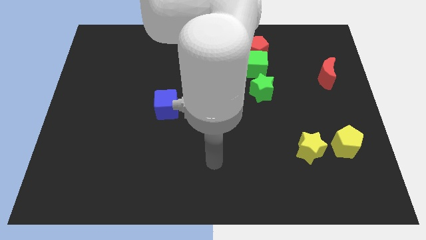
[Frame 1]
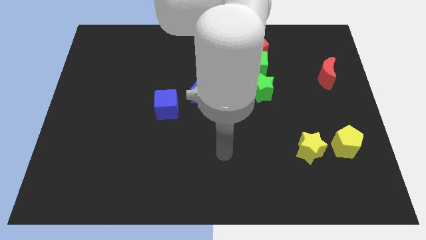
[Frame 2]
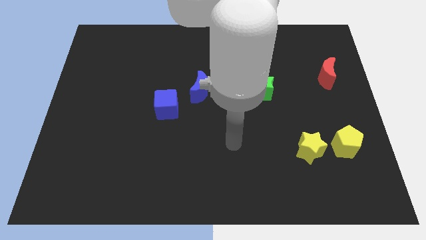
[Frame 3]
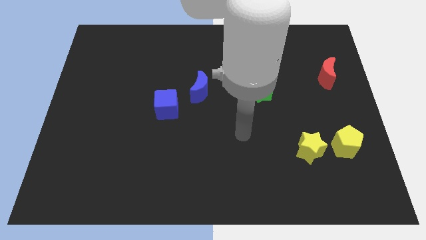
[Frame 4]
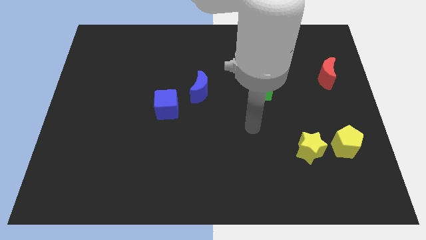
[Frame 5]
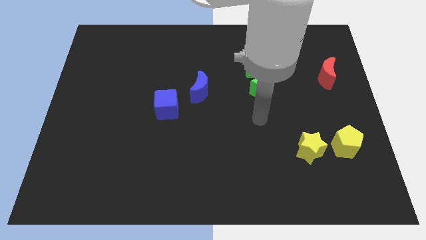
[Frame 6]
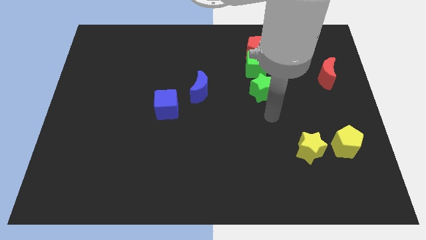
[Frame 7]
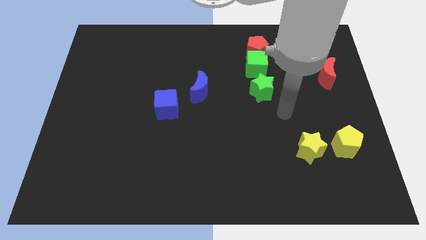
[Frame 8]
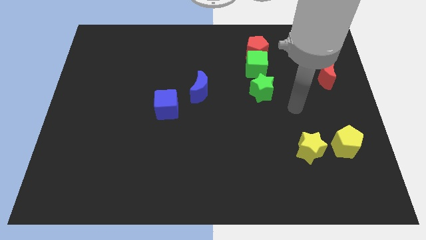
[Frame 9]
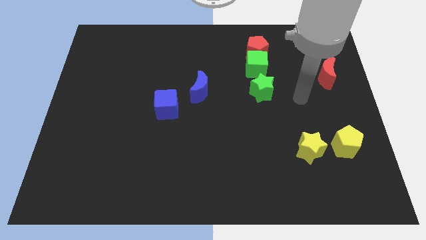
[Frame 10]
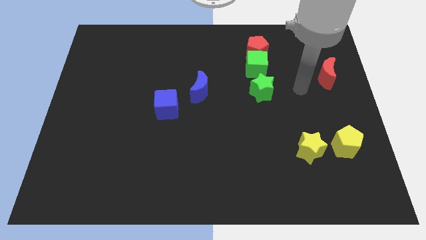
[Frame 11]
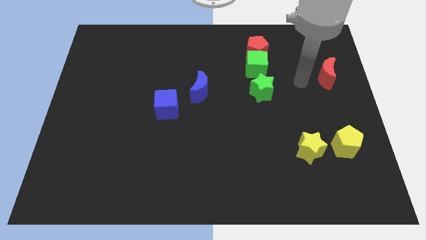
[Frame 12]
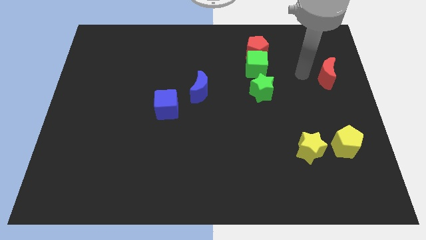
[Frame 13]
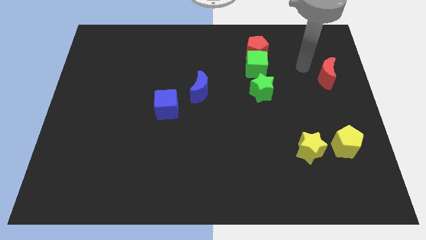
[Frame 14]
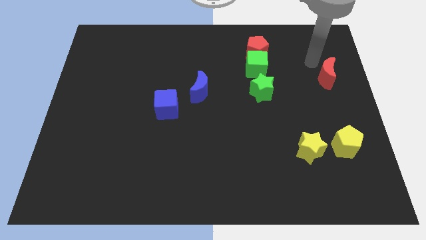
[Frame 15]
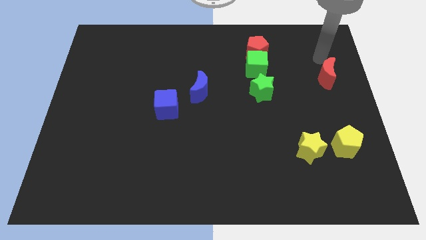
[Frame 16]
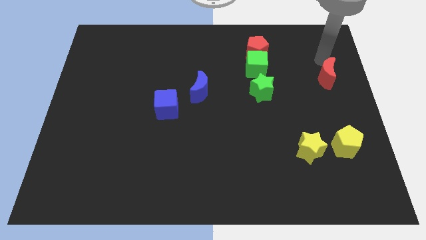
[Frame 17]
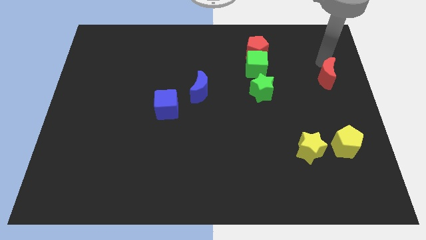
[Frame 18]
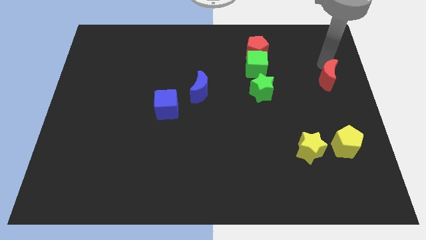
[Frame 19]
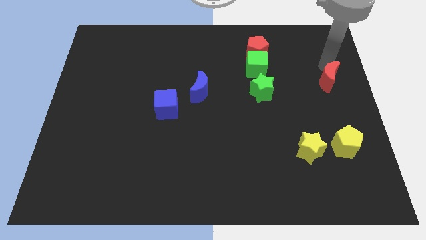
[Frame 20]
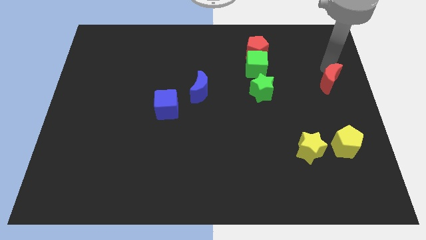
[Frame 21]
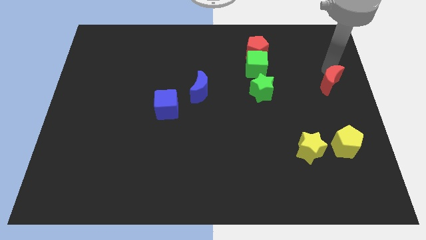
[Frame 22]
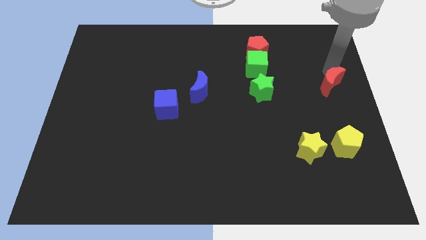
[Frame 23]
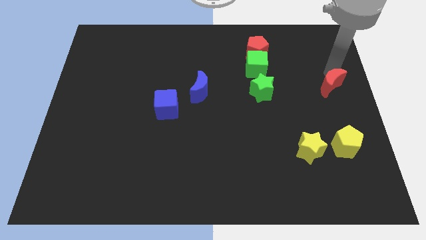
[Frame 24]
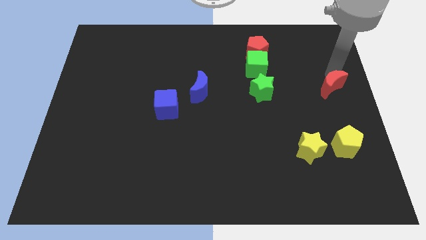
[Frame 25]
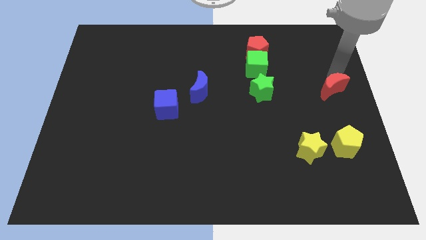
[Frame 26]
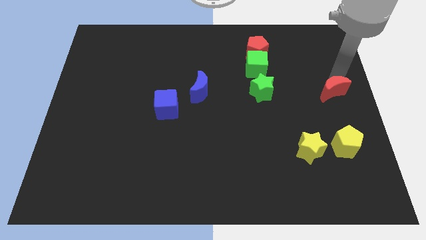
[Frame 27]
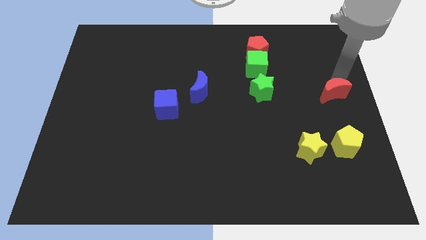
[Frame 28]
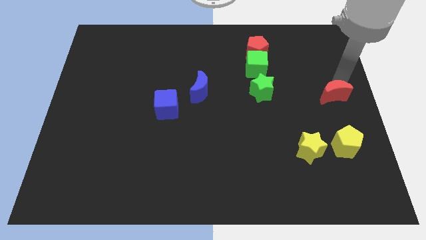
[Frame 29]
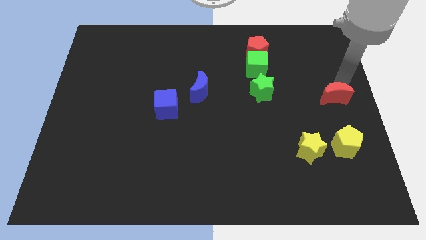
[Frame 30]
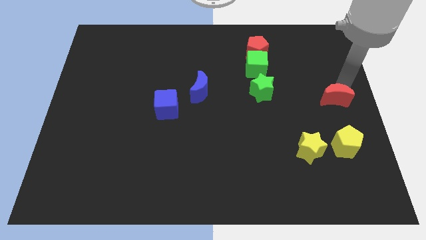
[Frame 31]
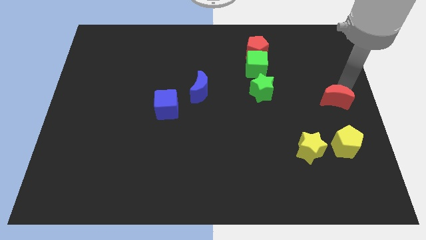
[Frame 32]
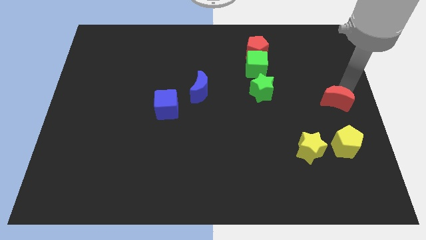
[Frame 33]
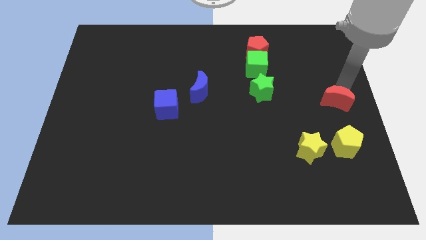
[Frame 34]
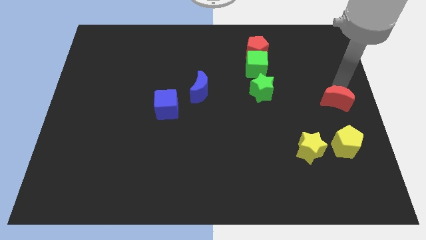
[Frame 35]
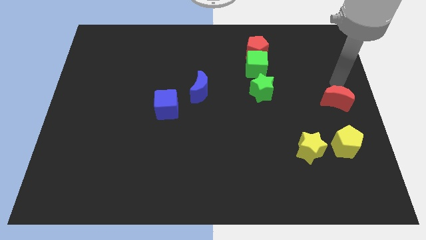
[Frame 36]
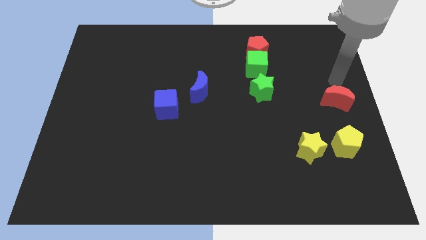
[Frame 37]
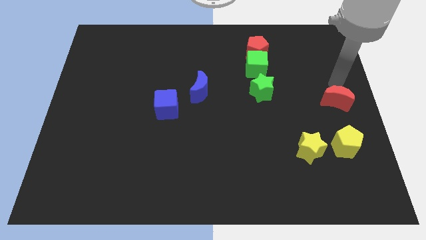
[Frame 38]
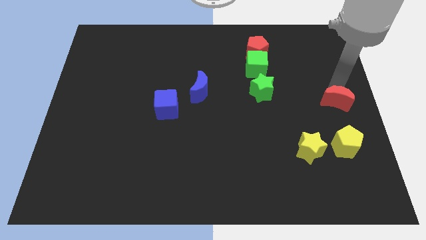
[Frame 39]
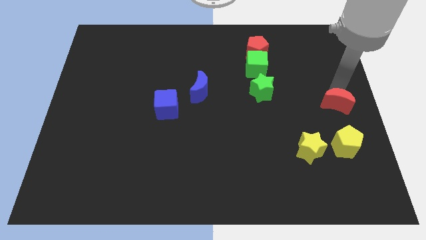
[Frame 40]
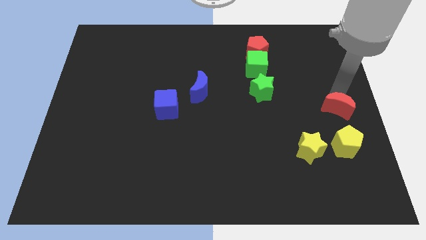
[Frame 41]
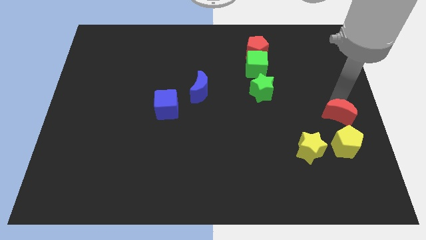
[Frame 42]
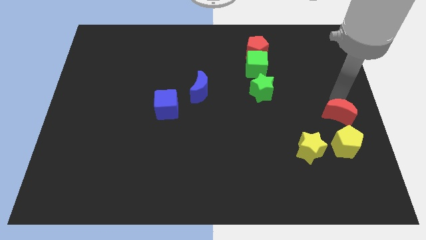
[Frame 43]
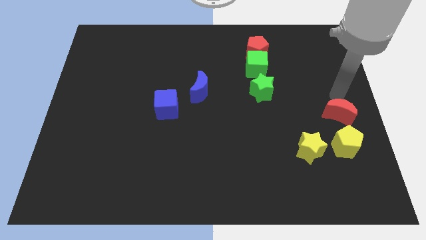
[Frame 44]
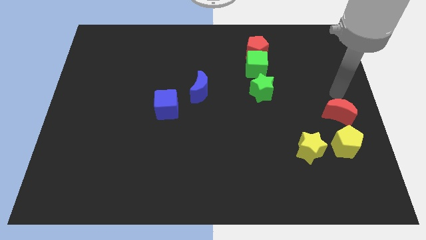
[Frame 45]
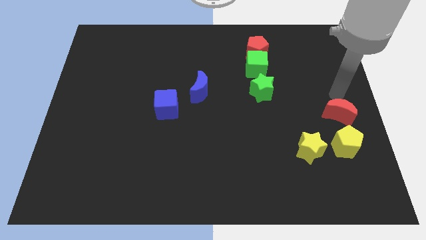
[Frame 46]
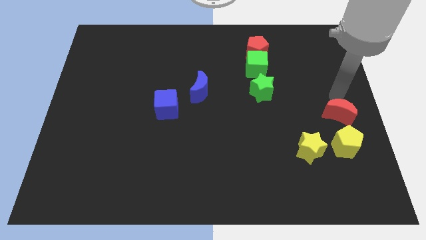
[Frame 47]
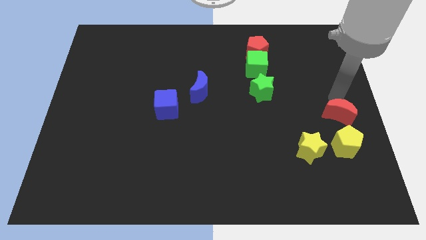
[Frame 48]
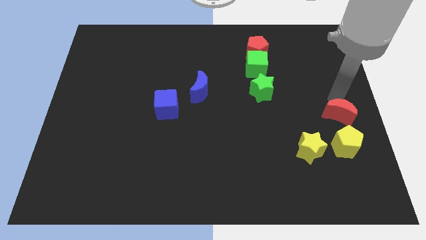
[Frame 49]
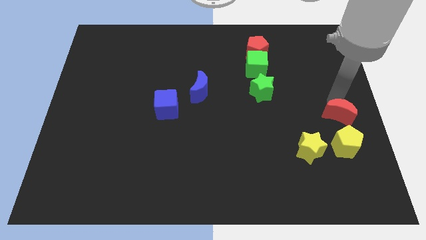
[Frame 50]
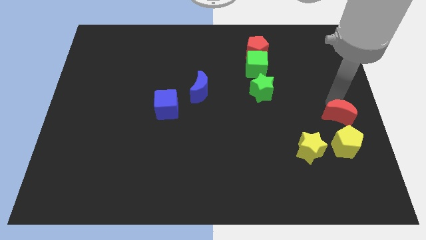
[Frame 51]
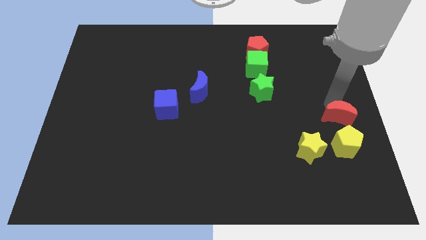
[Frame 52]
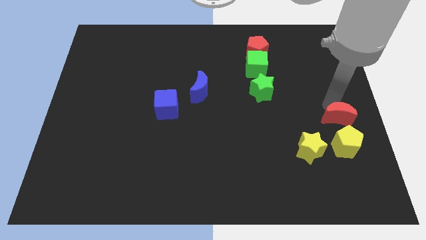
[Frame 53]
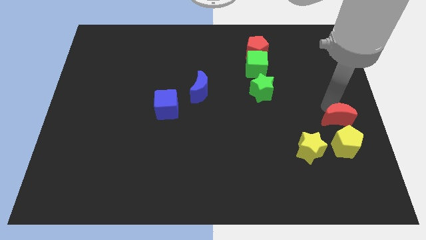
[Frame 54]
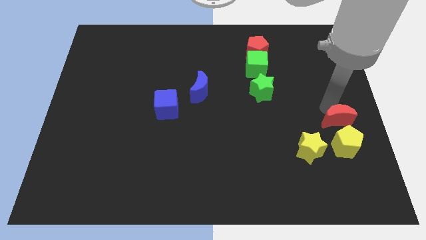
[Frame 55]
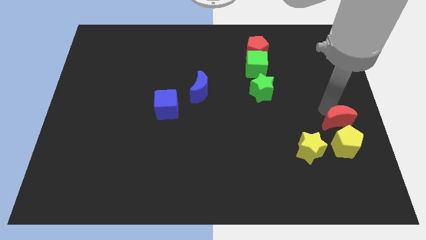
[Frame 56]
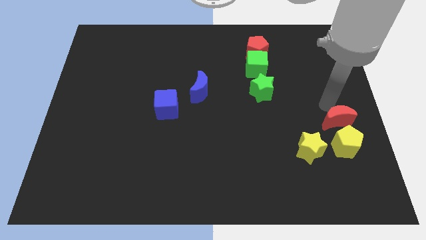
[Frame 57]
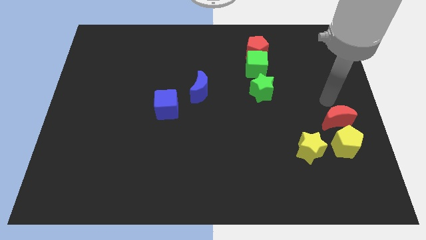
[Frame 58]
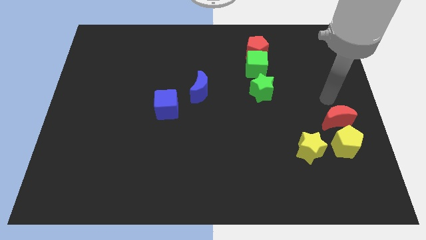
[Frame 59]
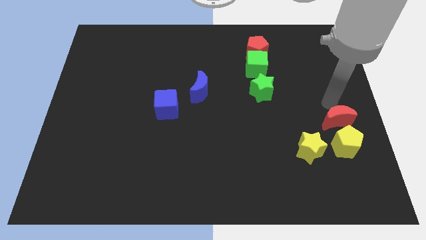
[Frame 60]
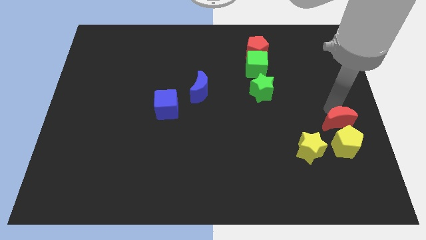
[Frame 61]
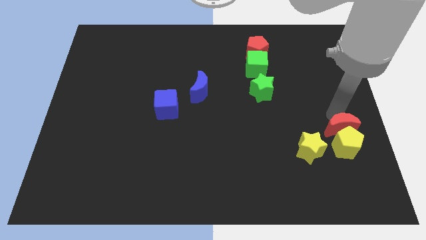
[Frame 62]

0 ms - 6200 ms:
push the red moon close to the yellow pentagon

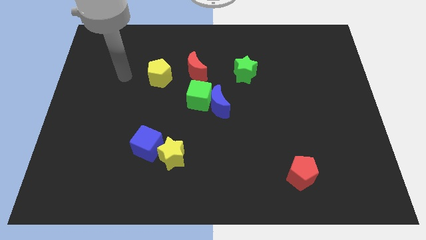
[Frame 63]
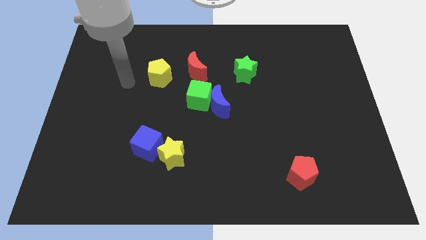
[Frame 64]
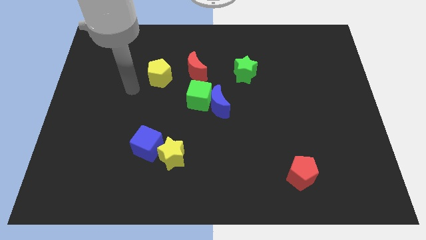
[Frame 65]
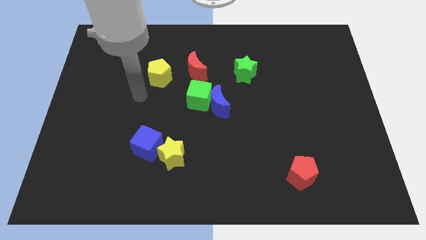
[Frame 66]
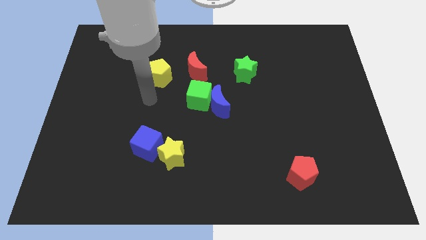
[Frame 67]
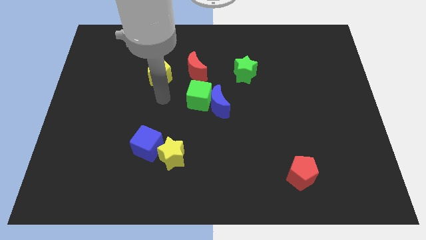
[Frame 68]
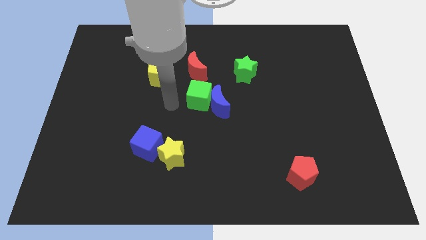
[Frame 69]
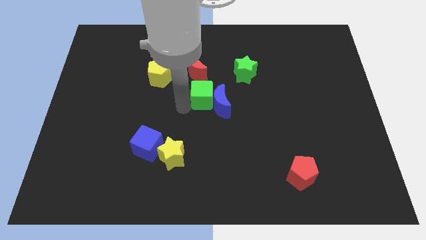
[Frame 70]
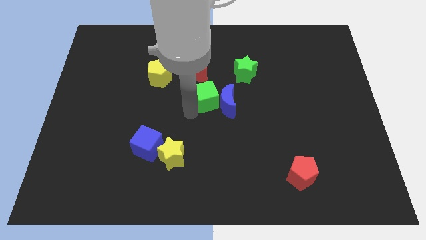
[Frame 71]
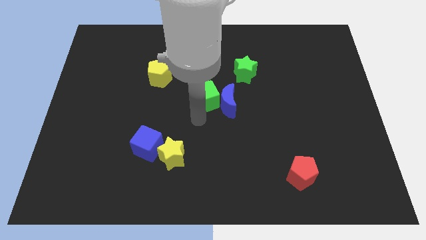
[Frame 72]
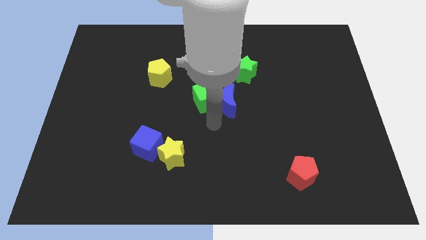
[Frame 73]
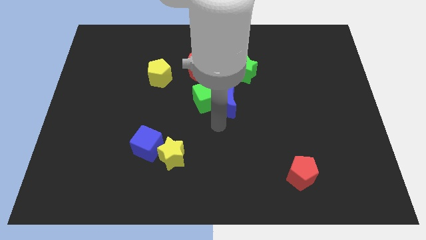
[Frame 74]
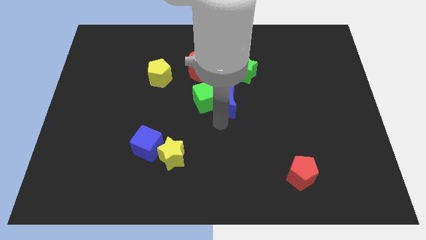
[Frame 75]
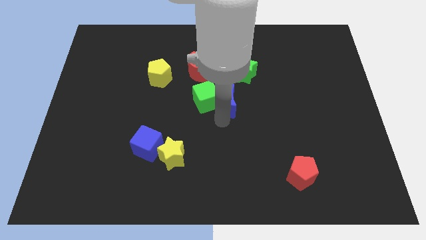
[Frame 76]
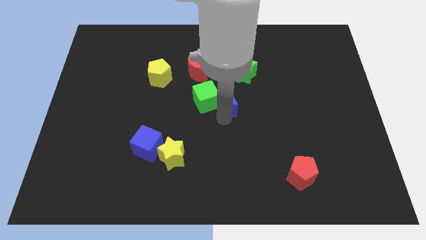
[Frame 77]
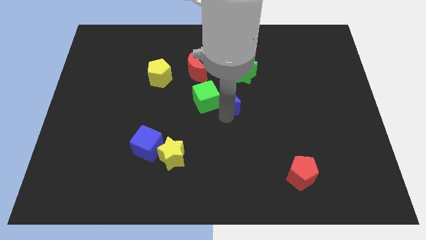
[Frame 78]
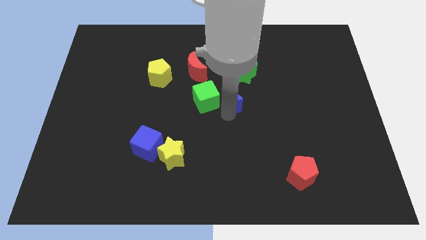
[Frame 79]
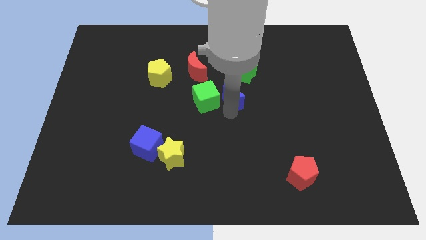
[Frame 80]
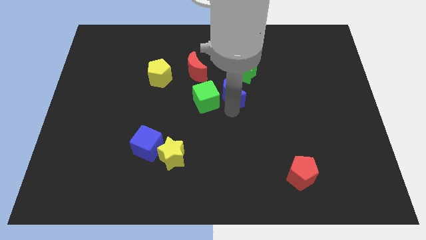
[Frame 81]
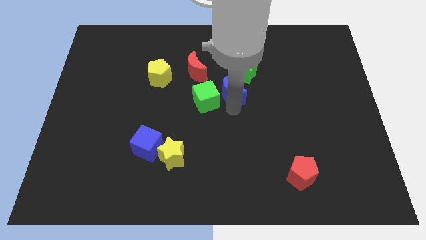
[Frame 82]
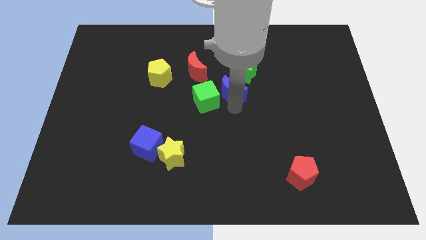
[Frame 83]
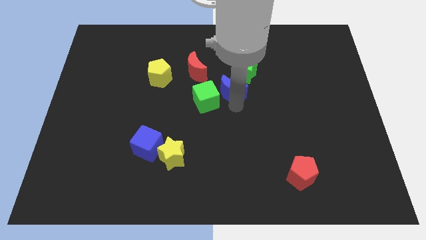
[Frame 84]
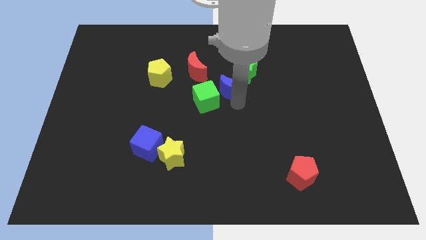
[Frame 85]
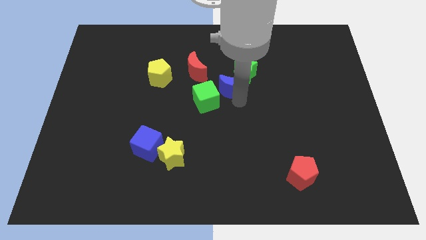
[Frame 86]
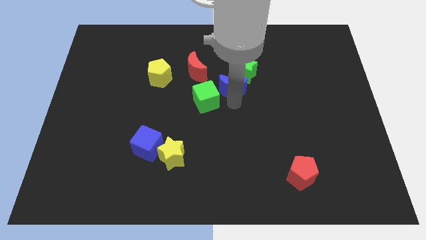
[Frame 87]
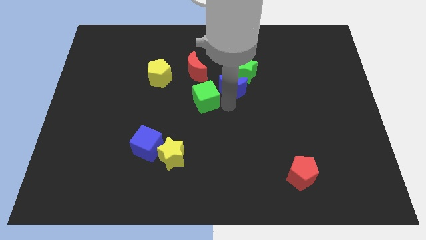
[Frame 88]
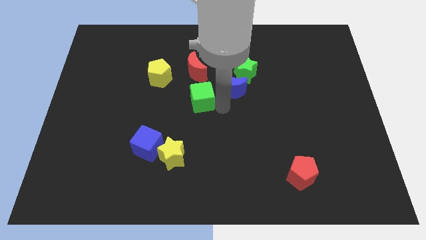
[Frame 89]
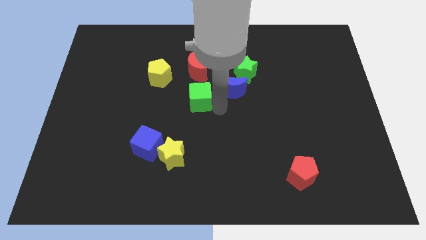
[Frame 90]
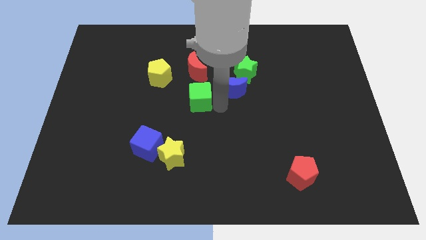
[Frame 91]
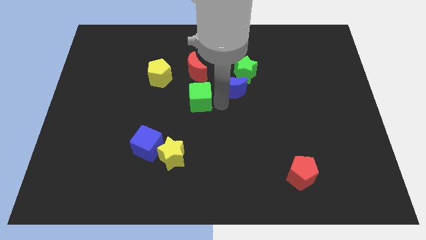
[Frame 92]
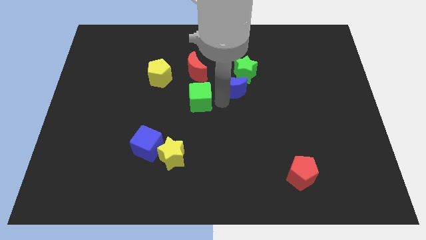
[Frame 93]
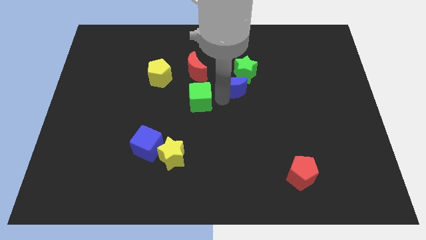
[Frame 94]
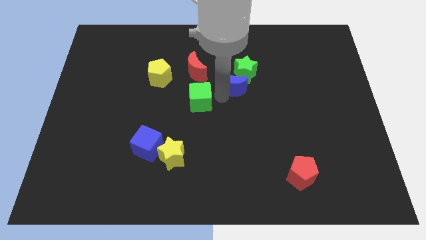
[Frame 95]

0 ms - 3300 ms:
move the blue moon towards the green star
